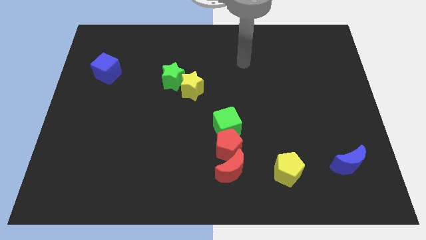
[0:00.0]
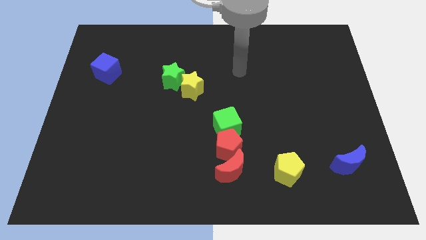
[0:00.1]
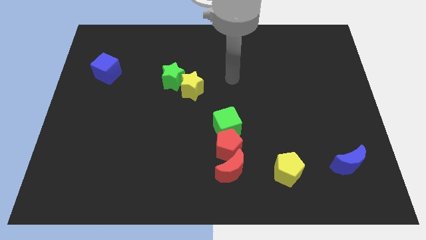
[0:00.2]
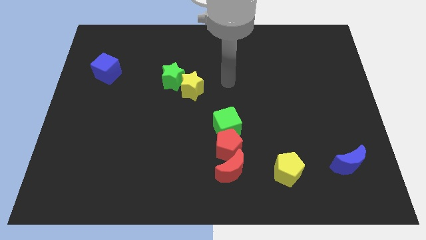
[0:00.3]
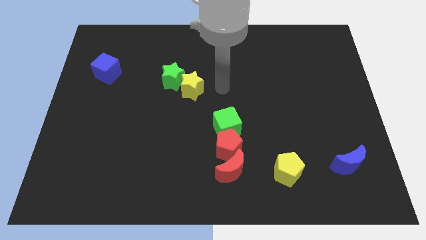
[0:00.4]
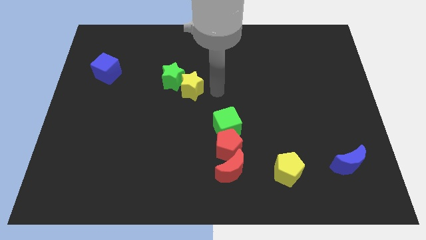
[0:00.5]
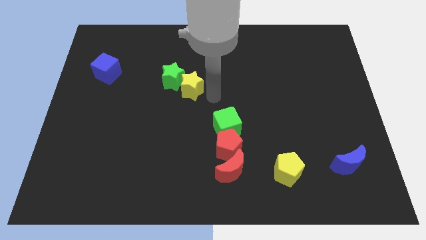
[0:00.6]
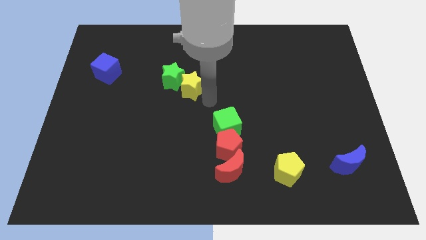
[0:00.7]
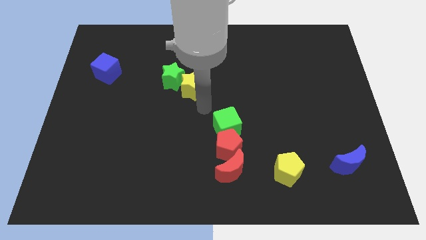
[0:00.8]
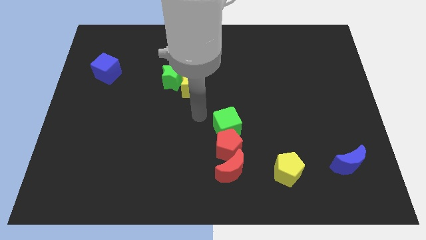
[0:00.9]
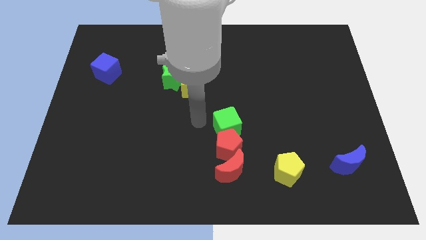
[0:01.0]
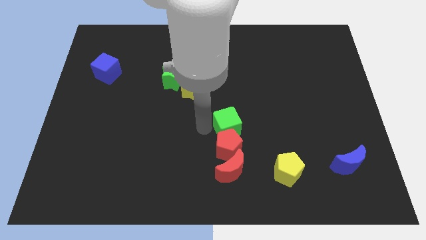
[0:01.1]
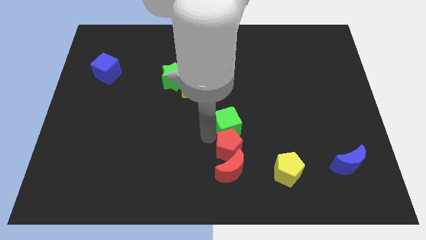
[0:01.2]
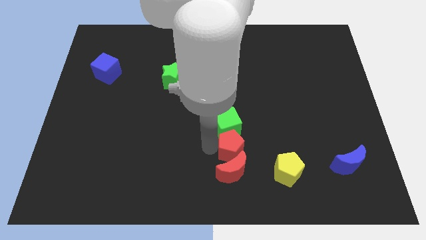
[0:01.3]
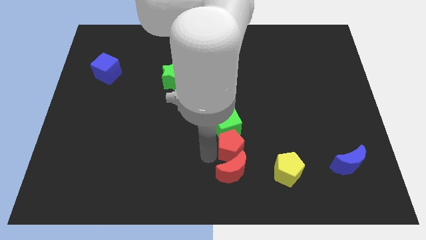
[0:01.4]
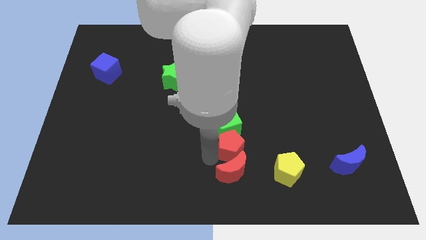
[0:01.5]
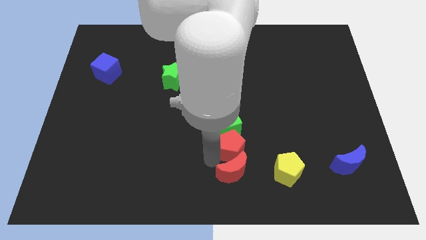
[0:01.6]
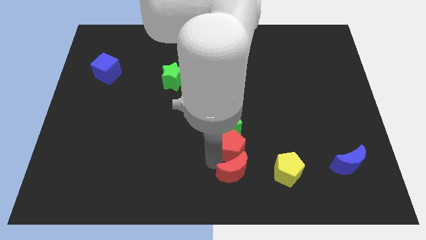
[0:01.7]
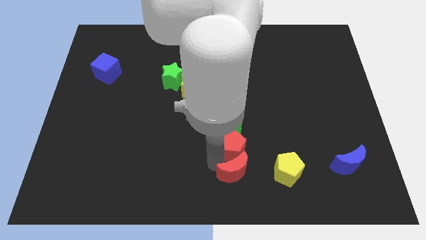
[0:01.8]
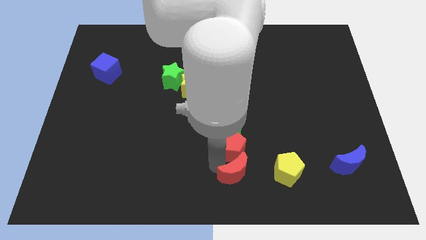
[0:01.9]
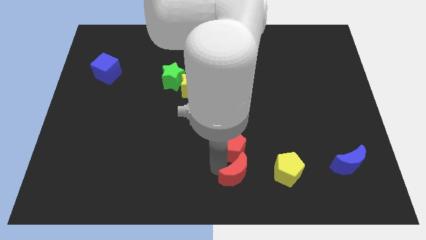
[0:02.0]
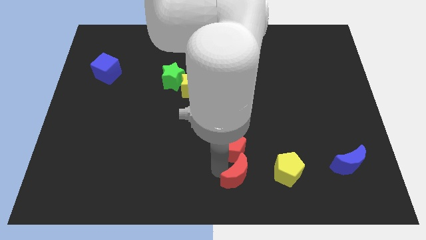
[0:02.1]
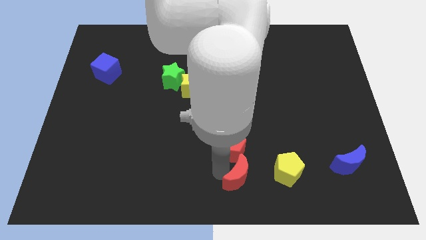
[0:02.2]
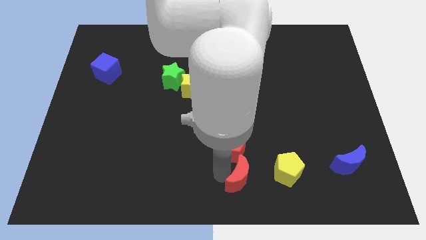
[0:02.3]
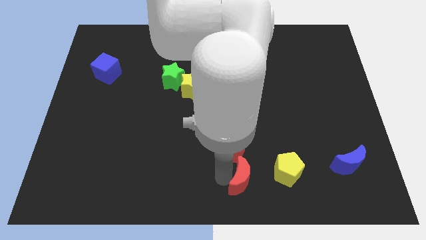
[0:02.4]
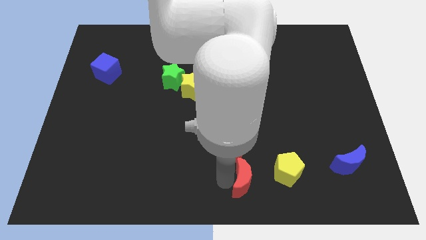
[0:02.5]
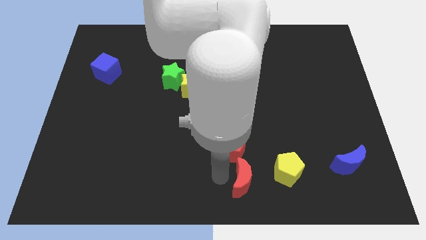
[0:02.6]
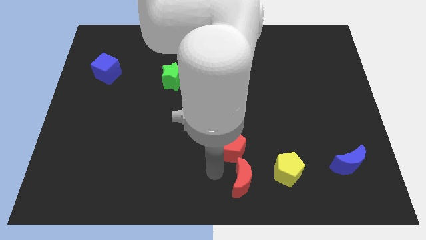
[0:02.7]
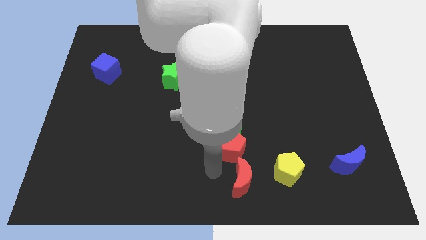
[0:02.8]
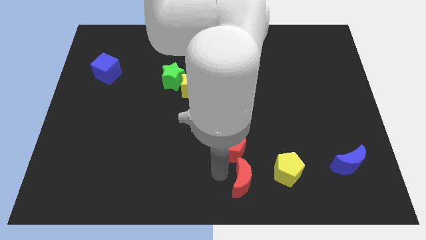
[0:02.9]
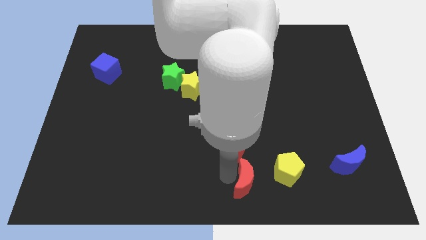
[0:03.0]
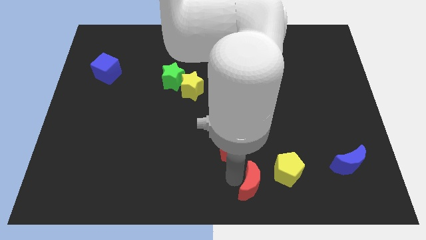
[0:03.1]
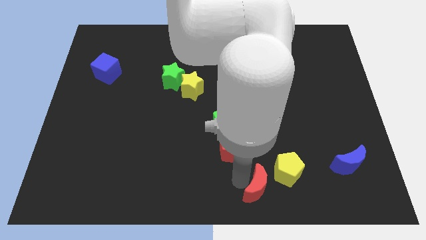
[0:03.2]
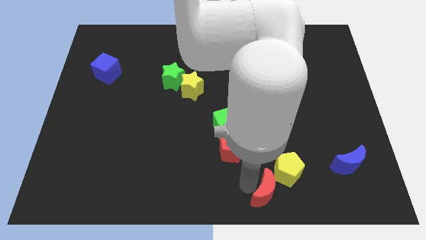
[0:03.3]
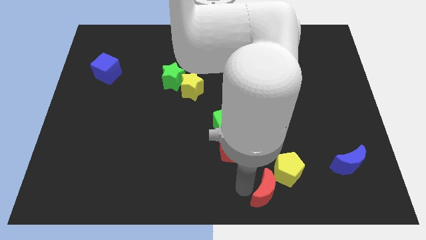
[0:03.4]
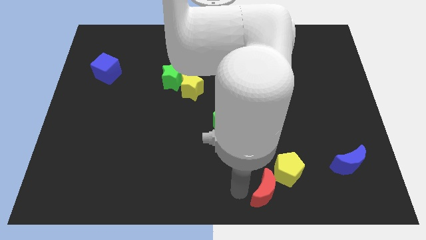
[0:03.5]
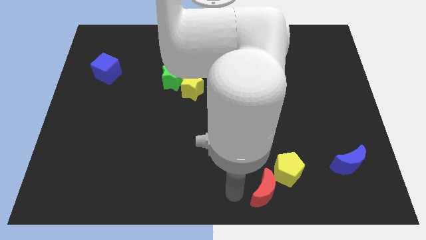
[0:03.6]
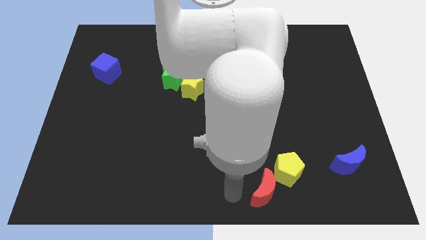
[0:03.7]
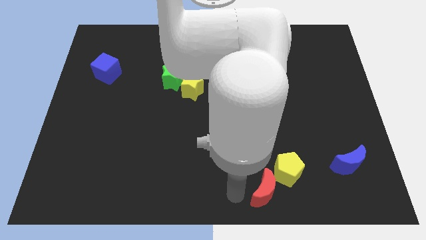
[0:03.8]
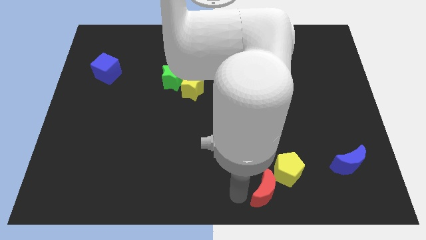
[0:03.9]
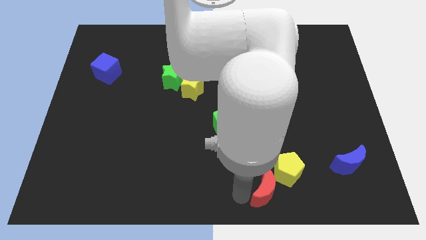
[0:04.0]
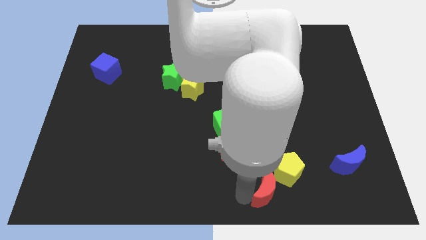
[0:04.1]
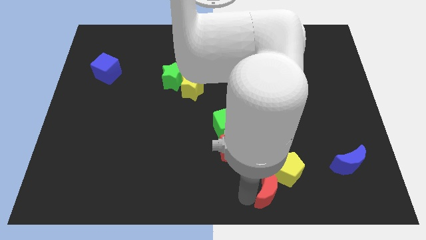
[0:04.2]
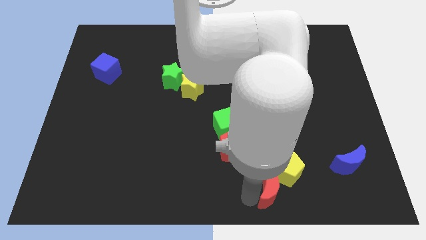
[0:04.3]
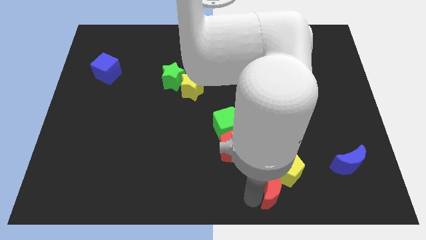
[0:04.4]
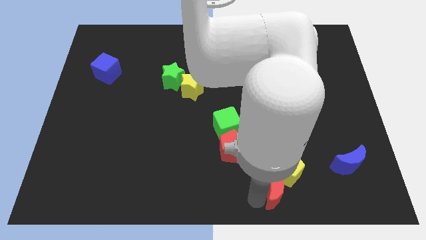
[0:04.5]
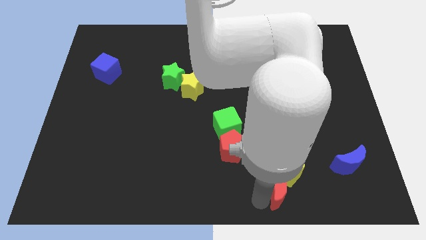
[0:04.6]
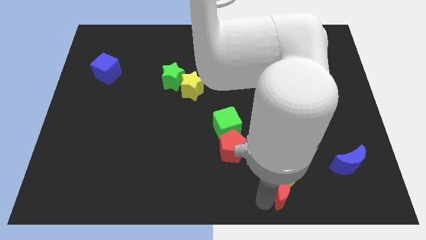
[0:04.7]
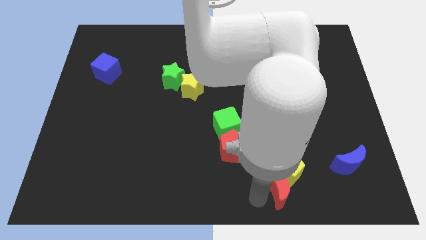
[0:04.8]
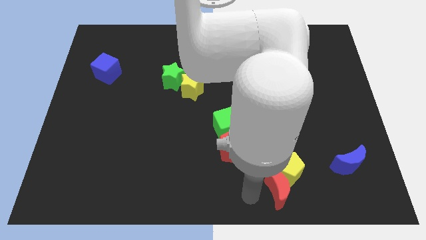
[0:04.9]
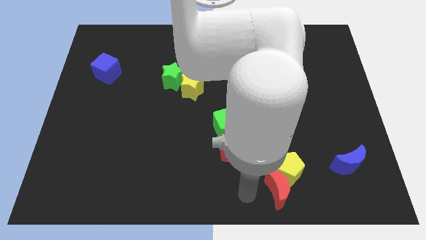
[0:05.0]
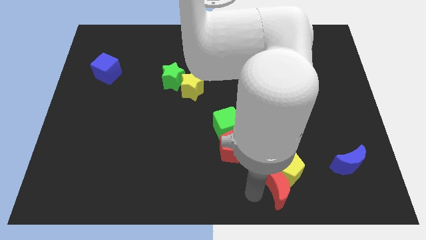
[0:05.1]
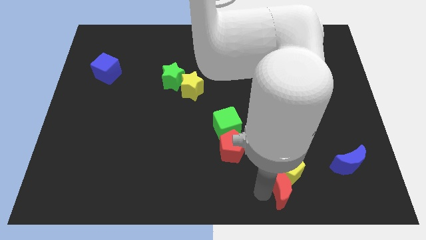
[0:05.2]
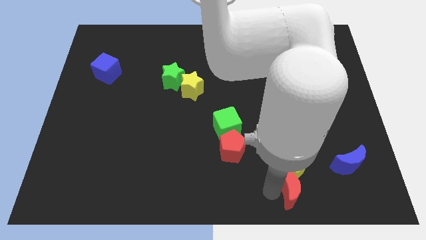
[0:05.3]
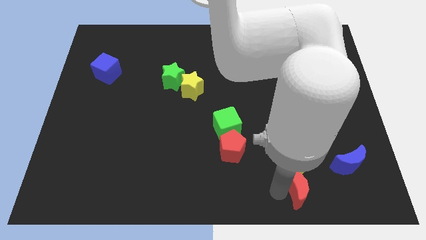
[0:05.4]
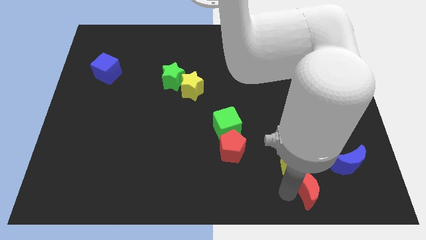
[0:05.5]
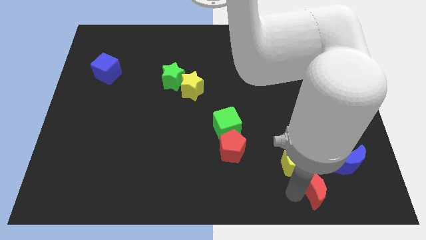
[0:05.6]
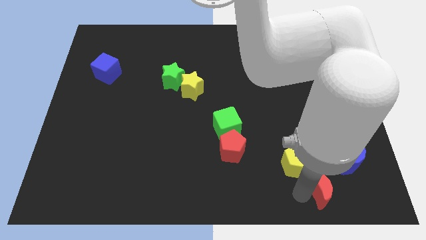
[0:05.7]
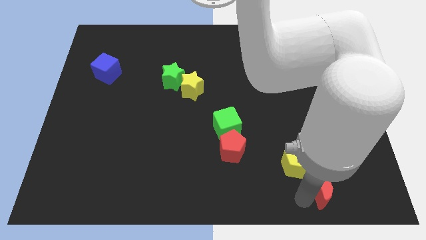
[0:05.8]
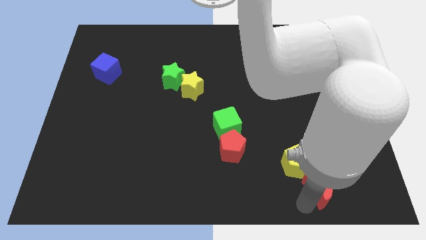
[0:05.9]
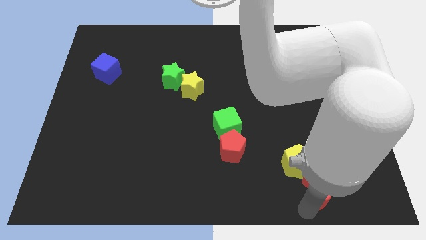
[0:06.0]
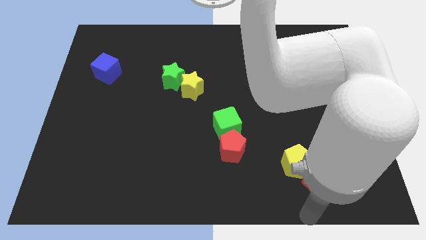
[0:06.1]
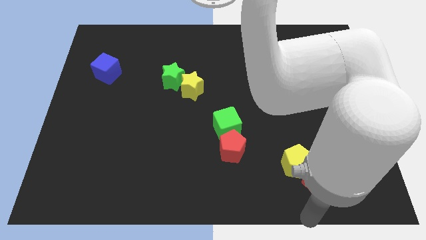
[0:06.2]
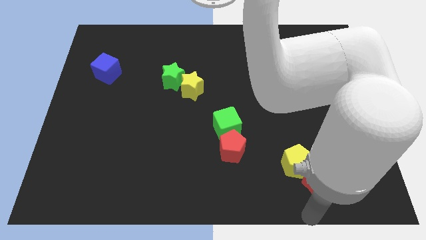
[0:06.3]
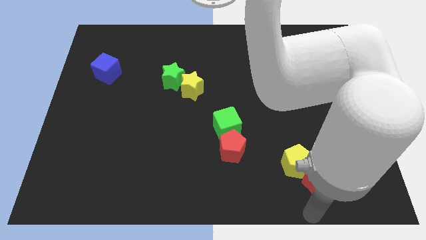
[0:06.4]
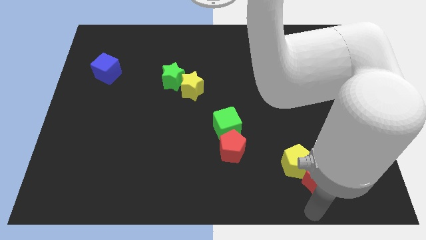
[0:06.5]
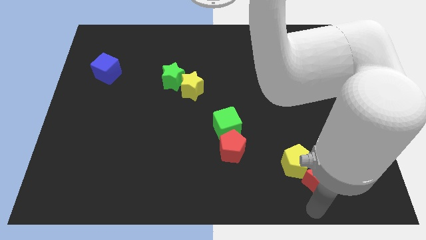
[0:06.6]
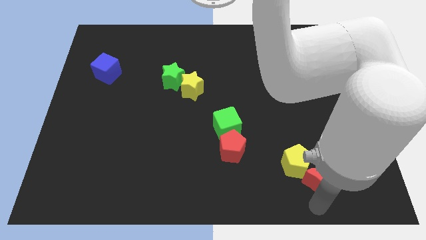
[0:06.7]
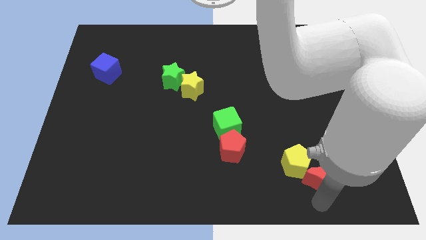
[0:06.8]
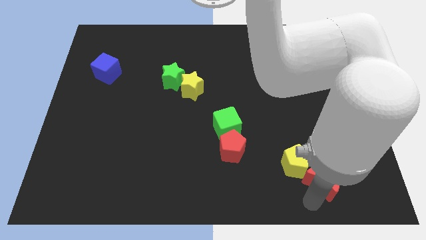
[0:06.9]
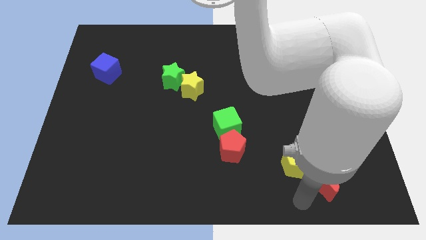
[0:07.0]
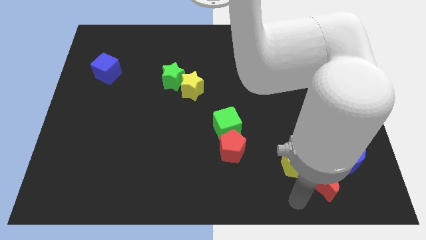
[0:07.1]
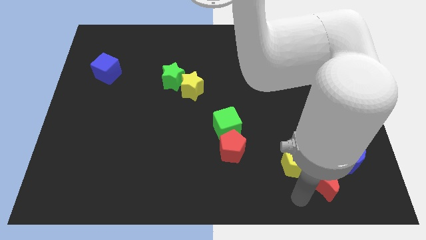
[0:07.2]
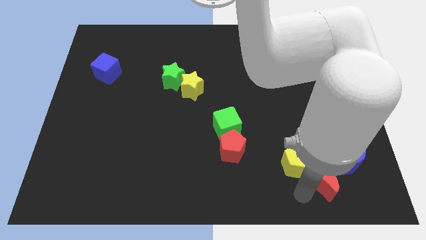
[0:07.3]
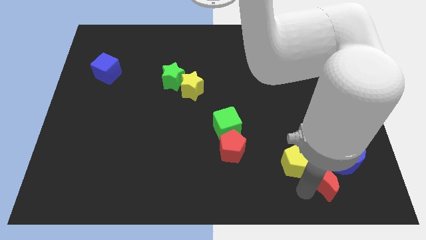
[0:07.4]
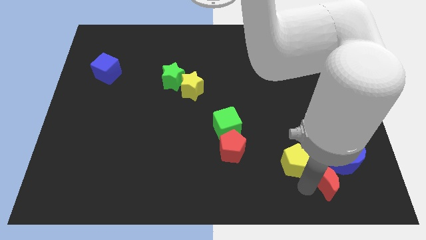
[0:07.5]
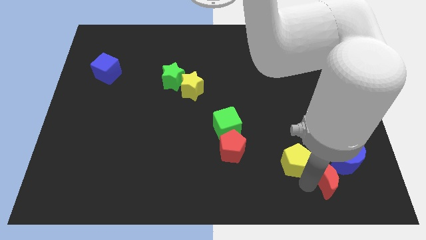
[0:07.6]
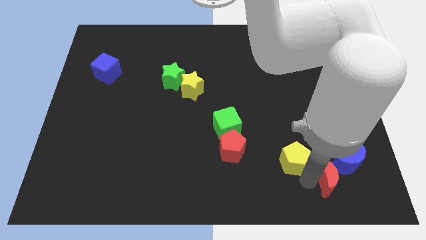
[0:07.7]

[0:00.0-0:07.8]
slide the red moon towards the blue moon
